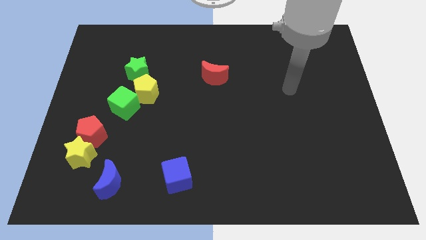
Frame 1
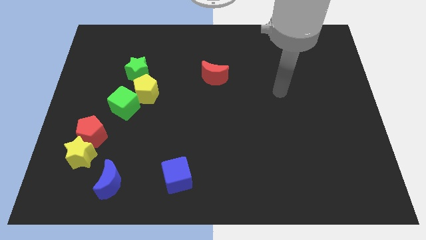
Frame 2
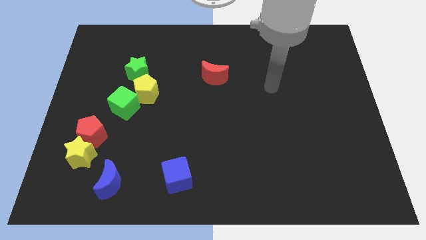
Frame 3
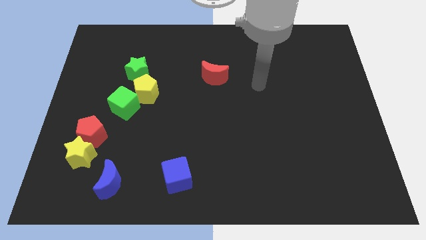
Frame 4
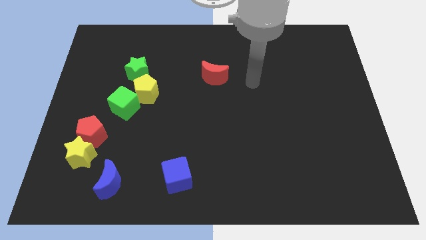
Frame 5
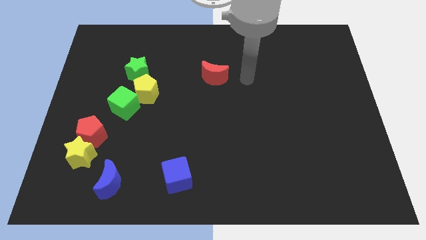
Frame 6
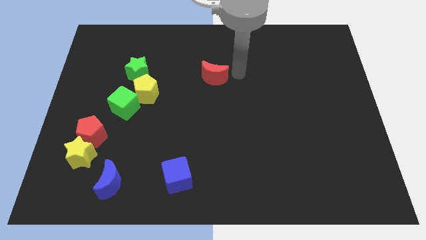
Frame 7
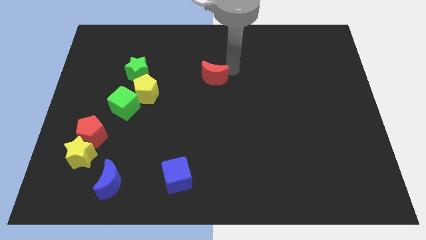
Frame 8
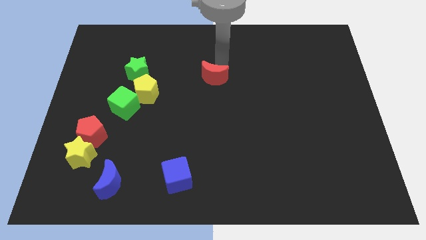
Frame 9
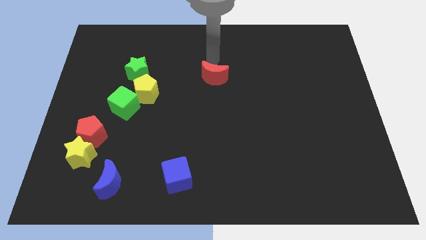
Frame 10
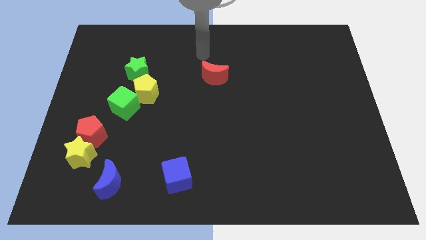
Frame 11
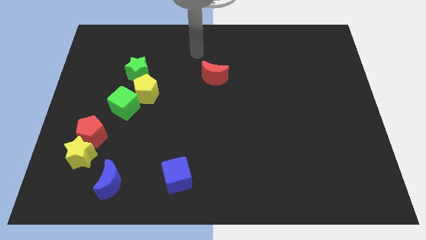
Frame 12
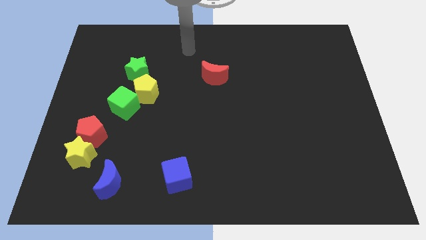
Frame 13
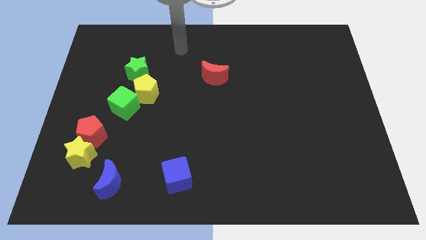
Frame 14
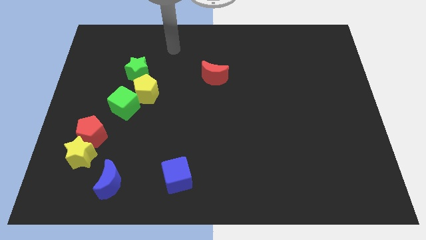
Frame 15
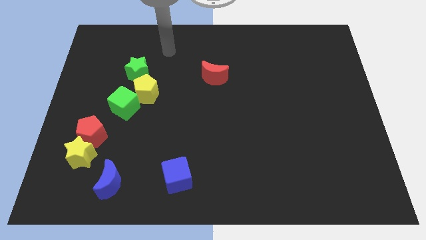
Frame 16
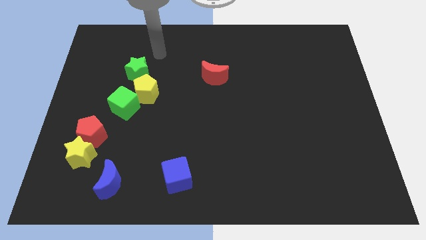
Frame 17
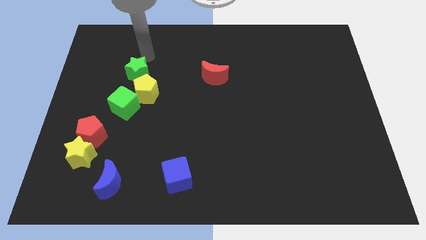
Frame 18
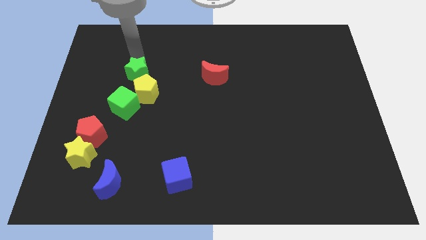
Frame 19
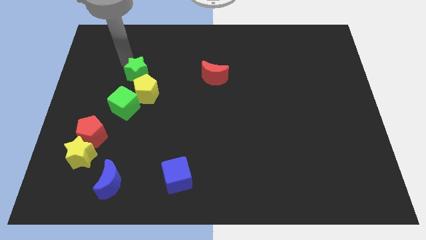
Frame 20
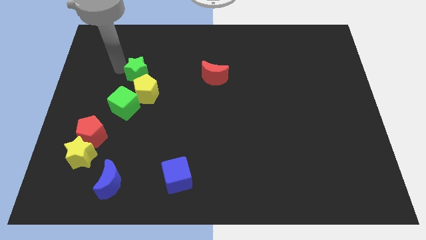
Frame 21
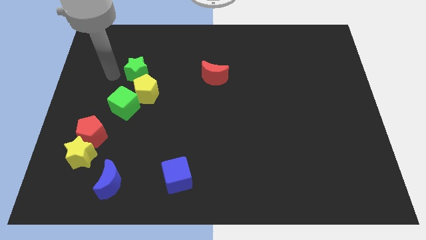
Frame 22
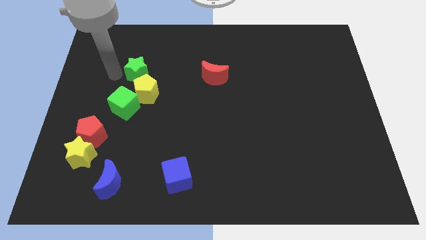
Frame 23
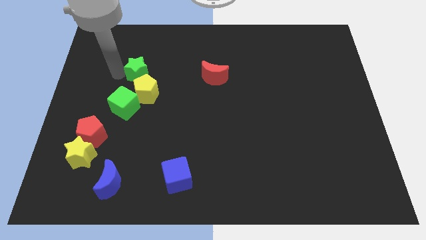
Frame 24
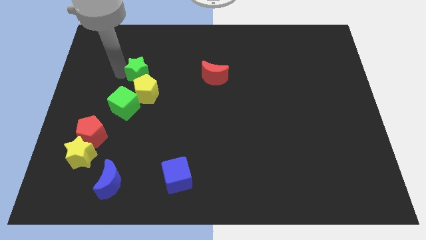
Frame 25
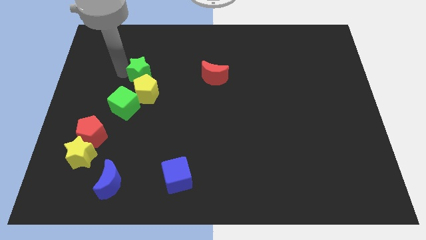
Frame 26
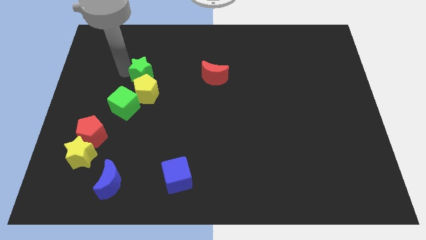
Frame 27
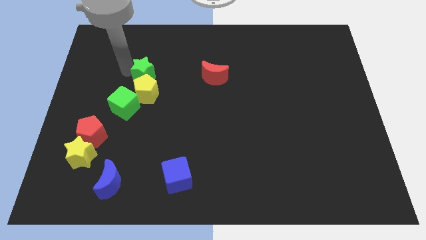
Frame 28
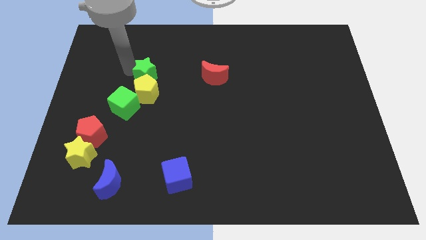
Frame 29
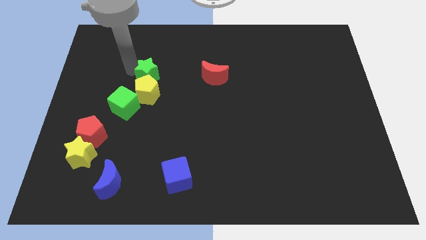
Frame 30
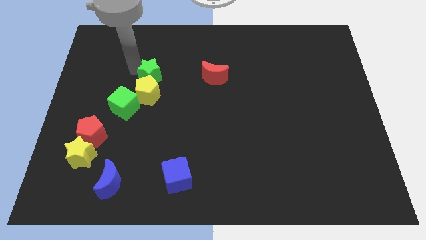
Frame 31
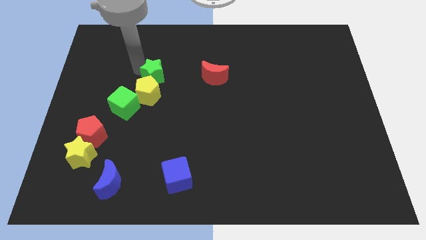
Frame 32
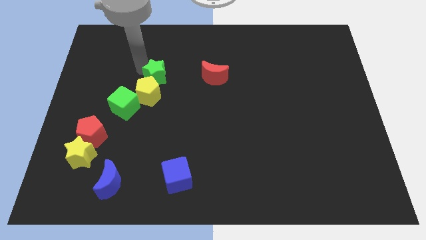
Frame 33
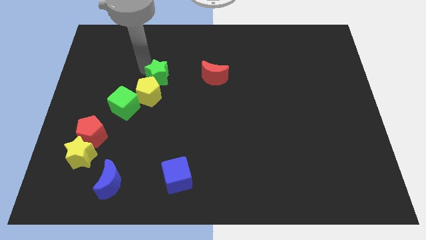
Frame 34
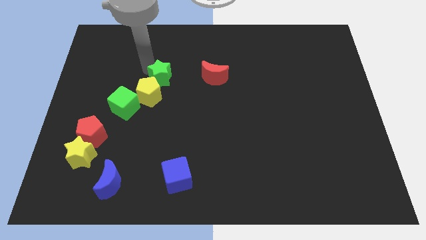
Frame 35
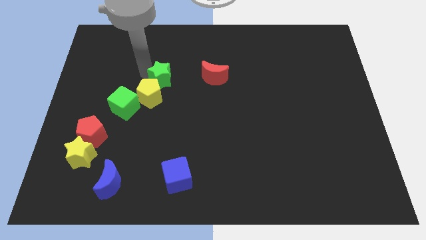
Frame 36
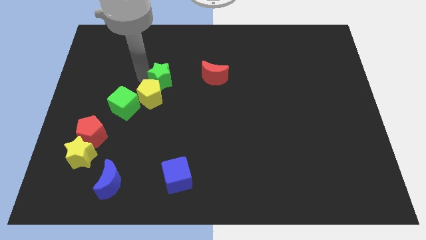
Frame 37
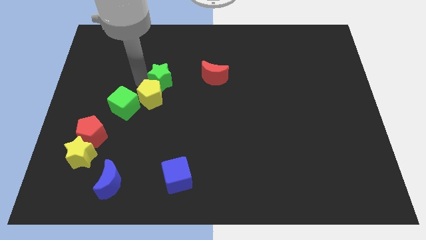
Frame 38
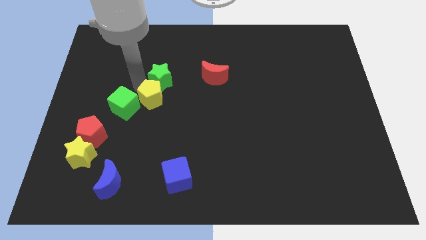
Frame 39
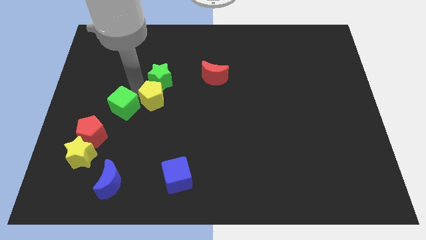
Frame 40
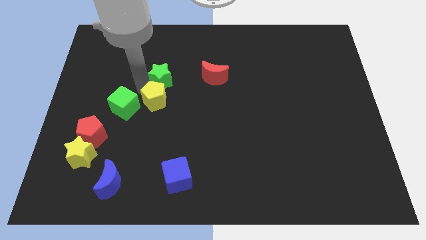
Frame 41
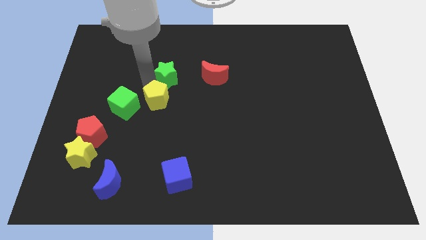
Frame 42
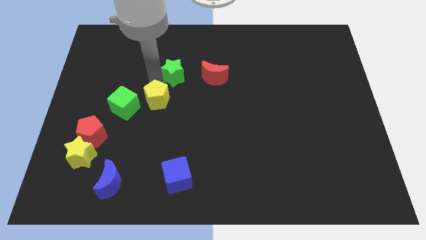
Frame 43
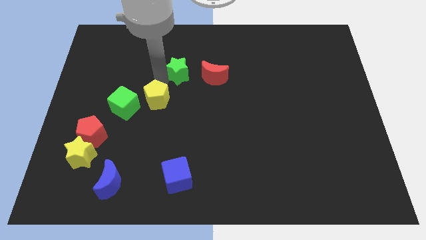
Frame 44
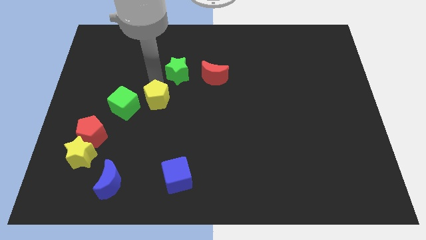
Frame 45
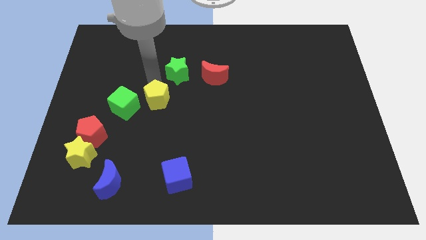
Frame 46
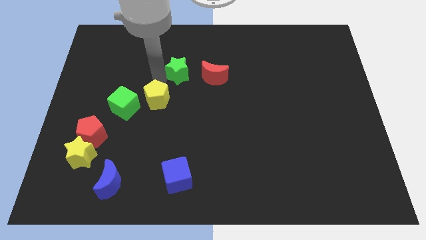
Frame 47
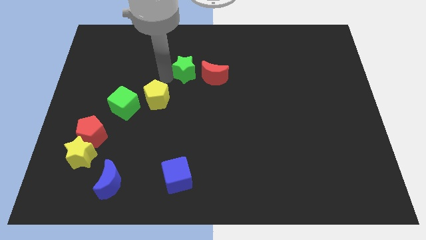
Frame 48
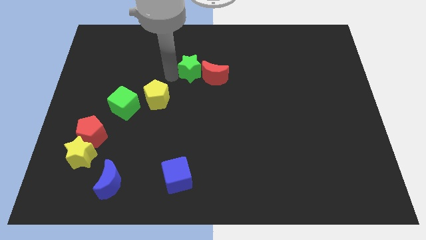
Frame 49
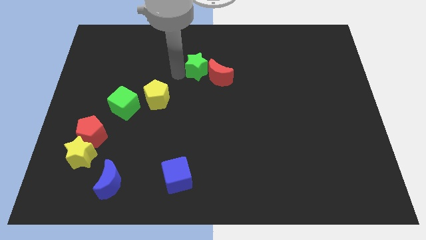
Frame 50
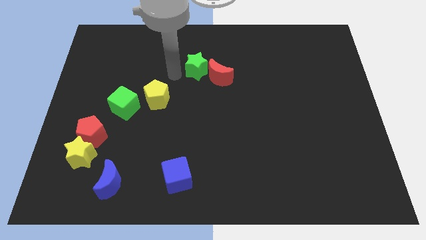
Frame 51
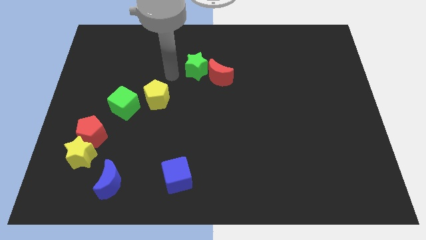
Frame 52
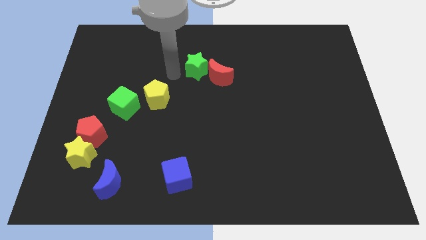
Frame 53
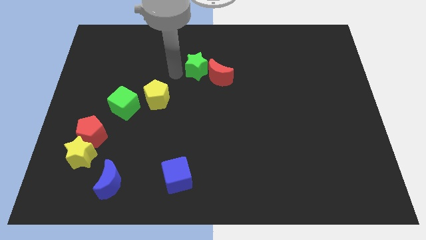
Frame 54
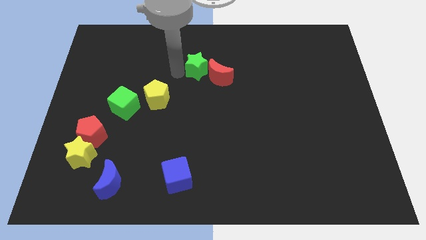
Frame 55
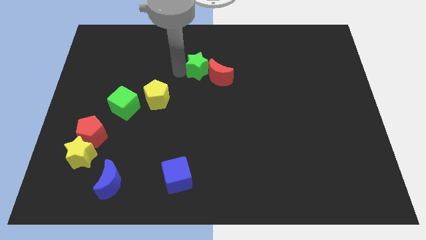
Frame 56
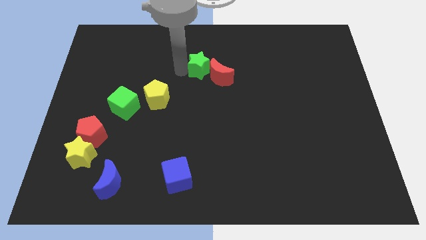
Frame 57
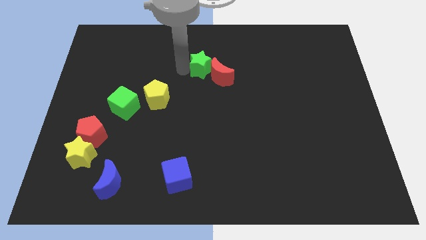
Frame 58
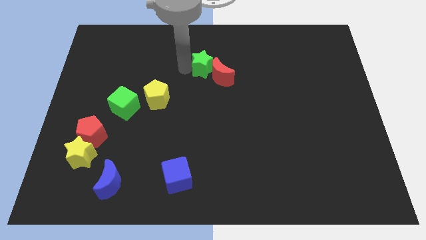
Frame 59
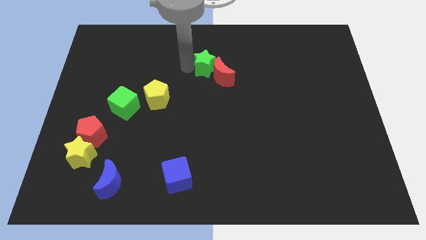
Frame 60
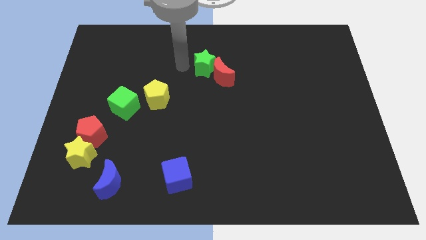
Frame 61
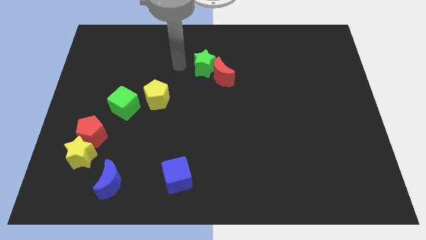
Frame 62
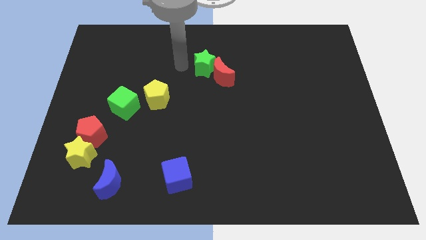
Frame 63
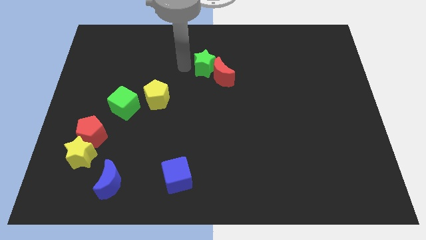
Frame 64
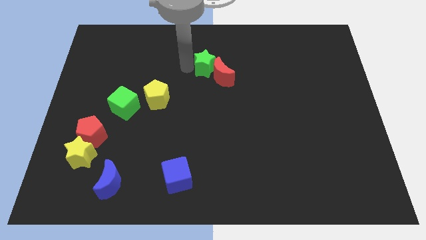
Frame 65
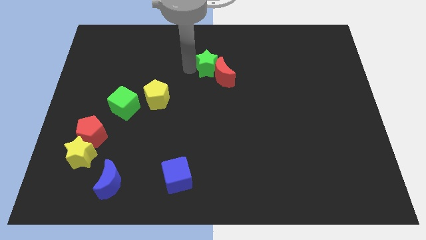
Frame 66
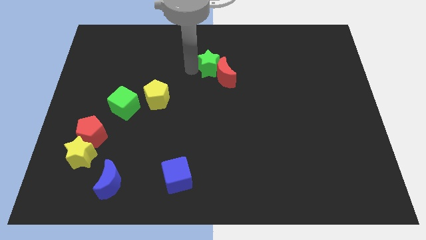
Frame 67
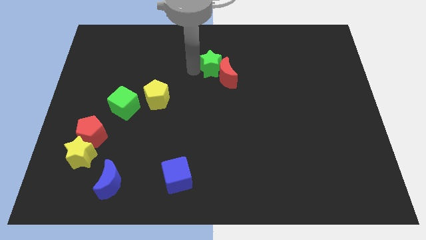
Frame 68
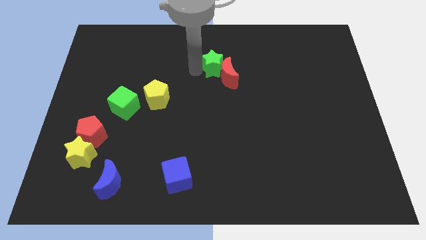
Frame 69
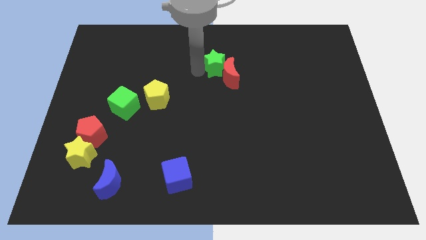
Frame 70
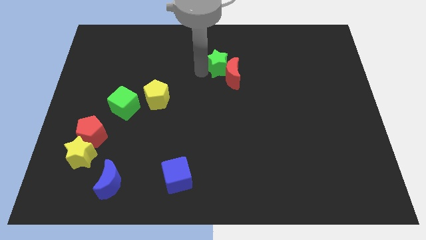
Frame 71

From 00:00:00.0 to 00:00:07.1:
slide the green star right

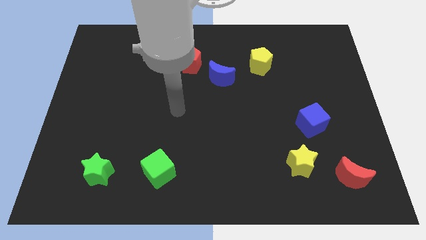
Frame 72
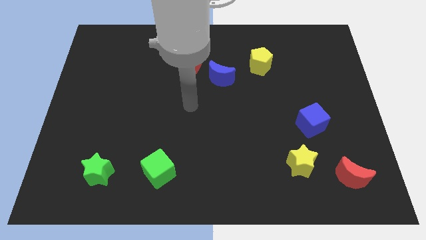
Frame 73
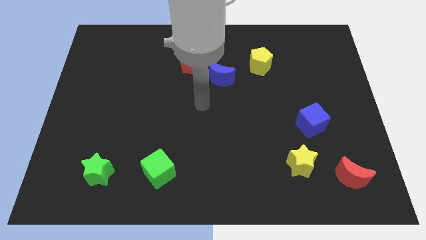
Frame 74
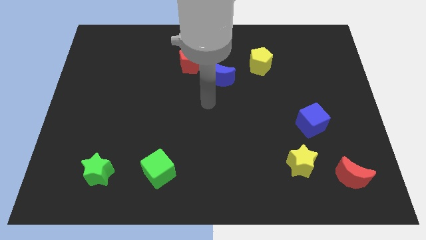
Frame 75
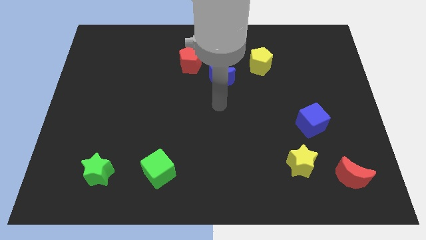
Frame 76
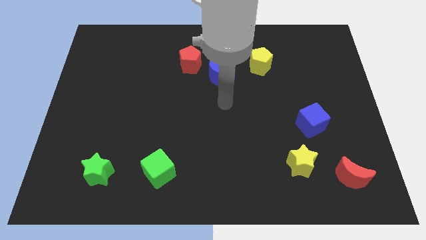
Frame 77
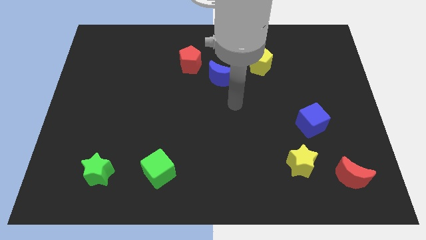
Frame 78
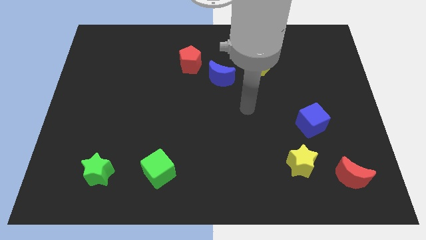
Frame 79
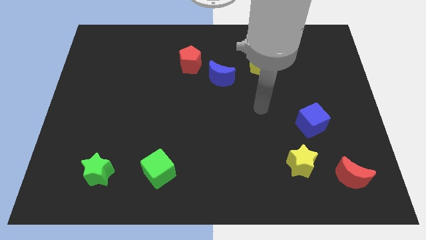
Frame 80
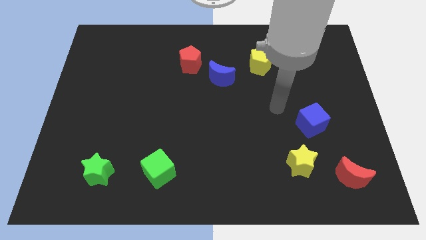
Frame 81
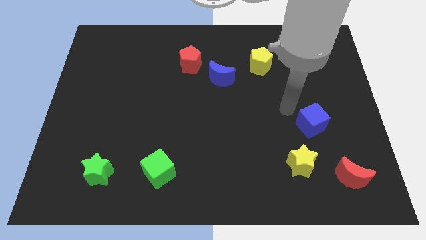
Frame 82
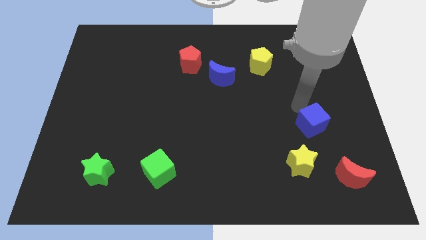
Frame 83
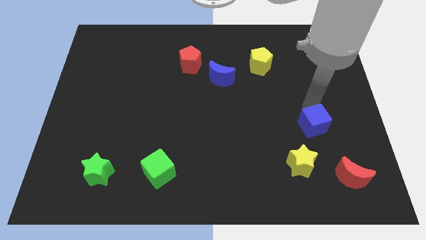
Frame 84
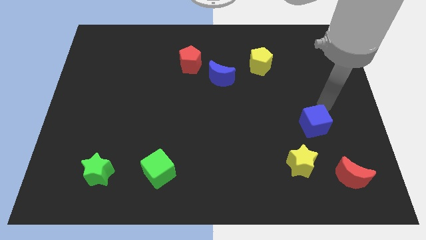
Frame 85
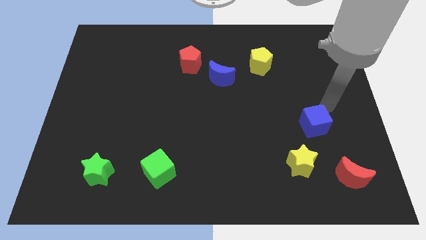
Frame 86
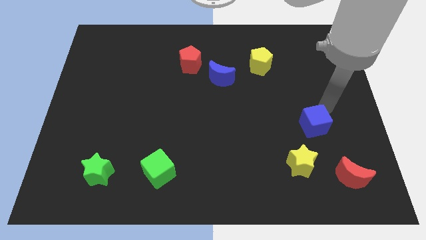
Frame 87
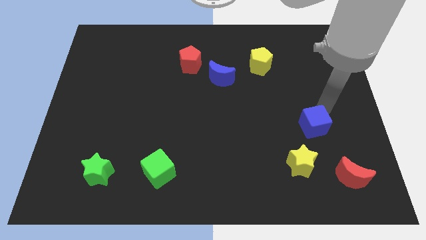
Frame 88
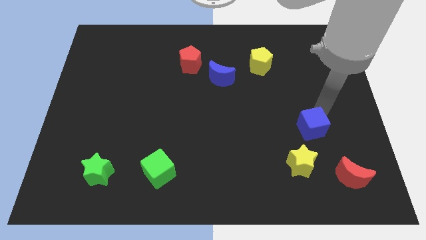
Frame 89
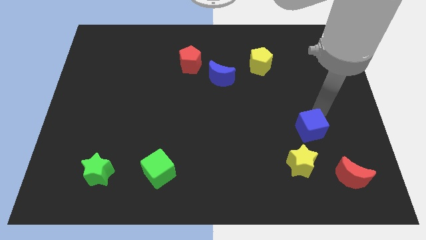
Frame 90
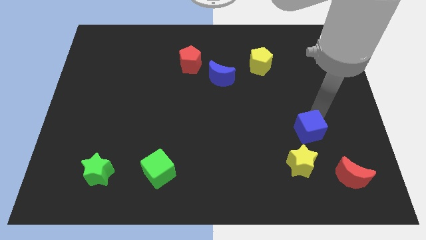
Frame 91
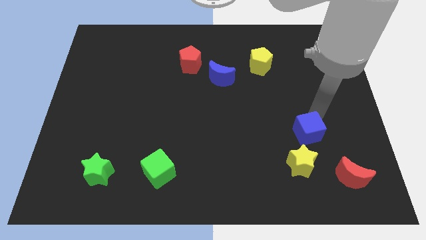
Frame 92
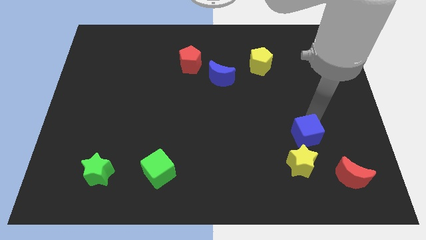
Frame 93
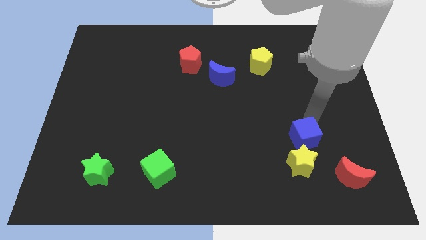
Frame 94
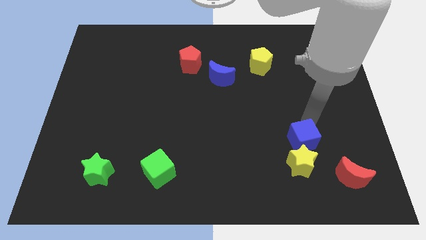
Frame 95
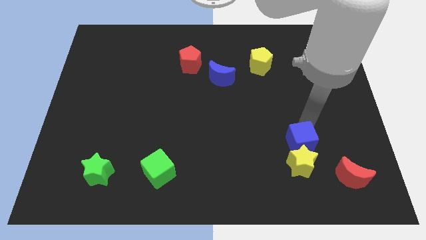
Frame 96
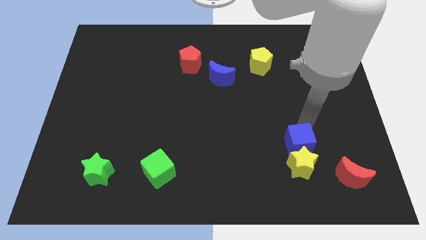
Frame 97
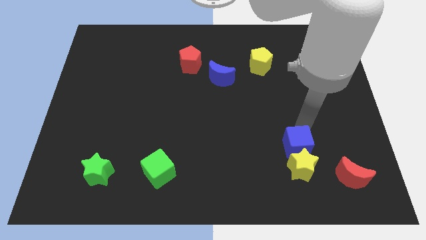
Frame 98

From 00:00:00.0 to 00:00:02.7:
slightly move the blue cube diagonally downwards and left
